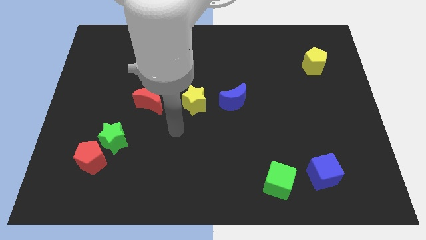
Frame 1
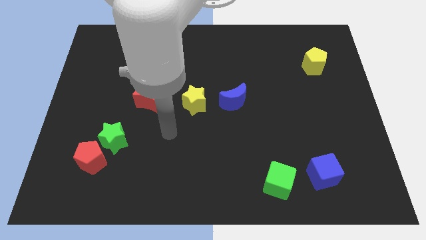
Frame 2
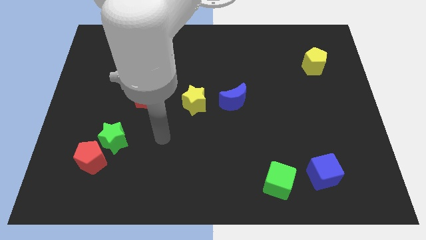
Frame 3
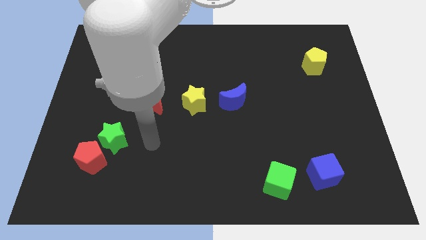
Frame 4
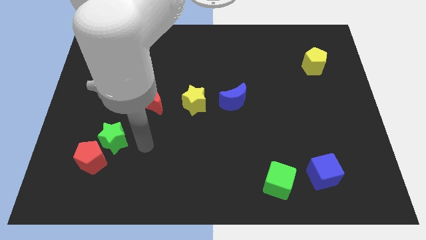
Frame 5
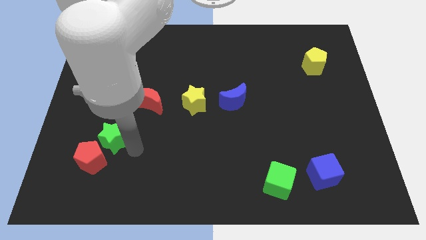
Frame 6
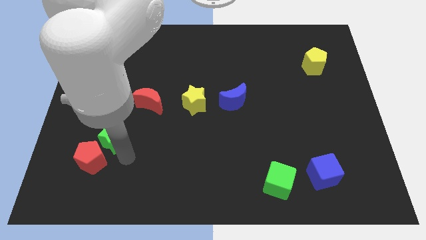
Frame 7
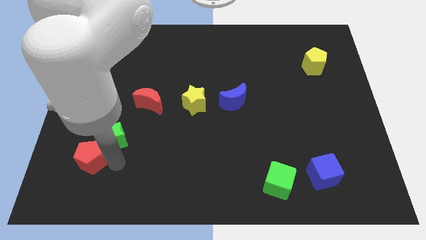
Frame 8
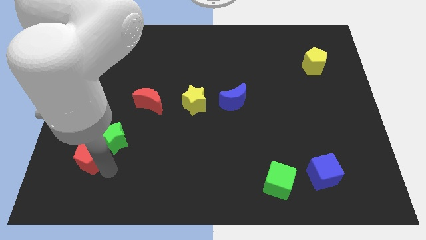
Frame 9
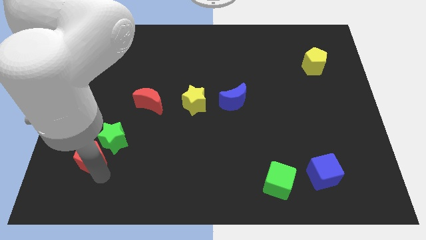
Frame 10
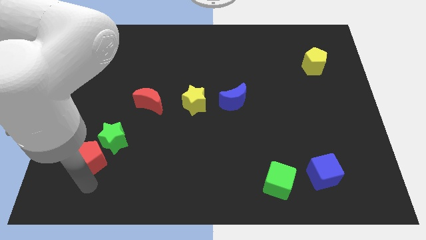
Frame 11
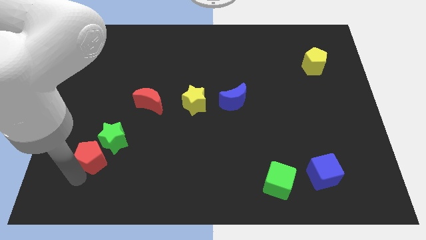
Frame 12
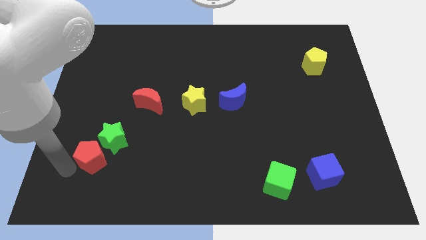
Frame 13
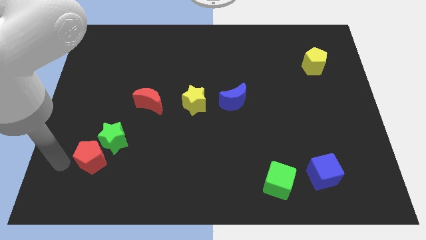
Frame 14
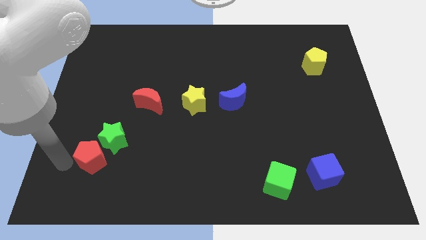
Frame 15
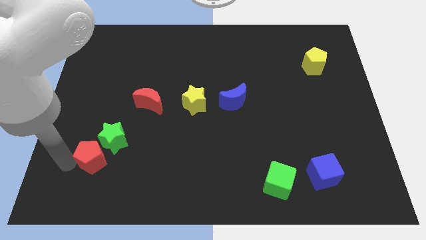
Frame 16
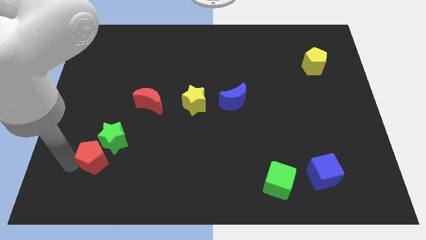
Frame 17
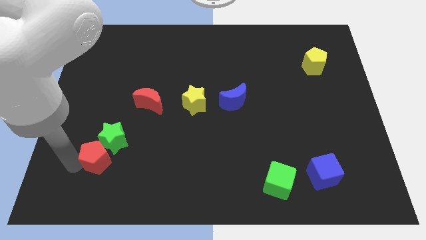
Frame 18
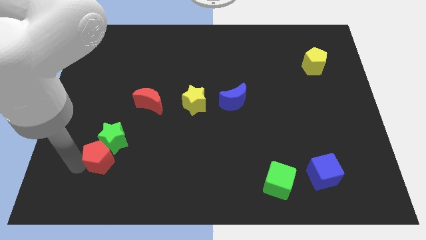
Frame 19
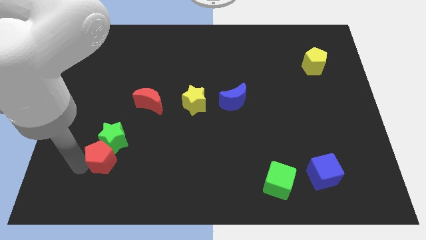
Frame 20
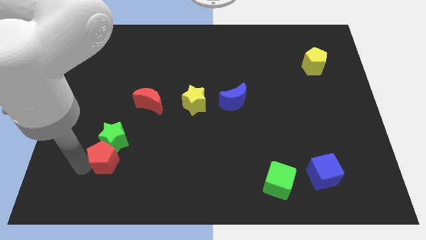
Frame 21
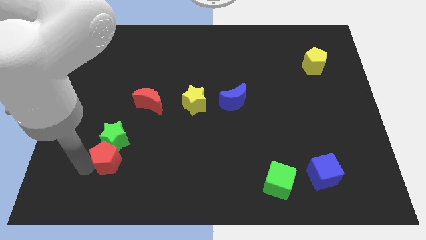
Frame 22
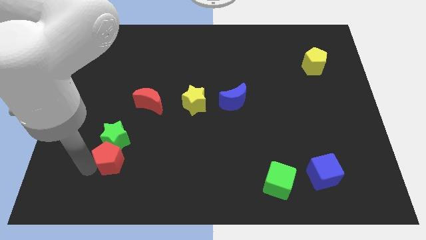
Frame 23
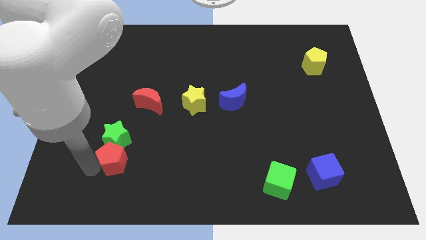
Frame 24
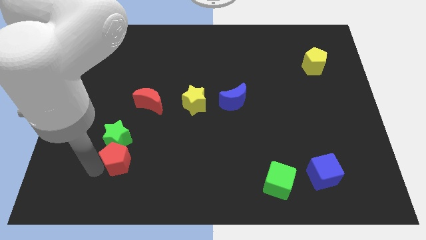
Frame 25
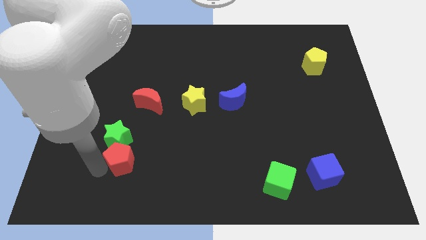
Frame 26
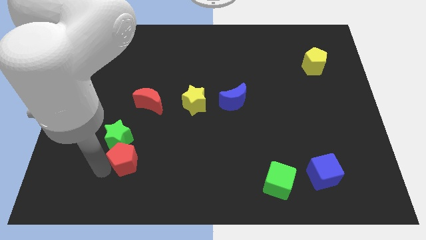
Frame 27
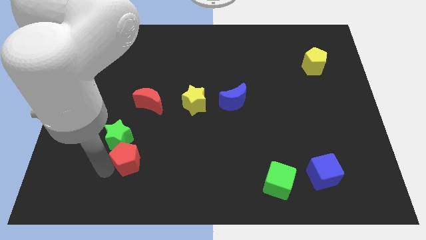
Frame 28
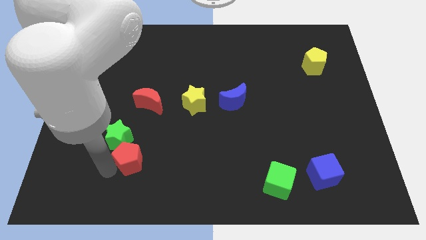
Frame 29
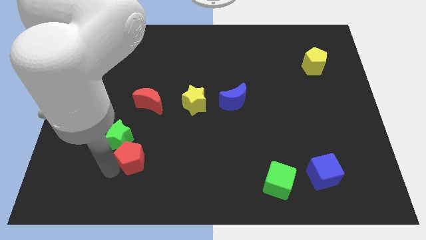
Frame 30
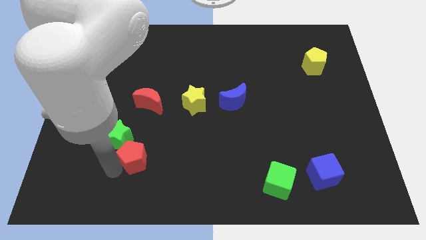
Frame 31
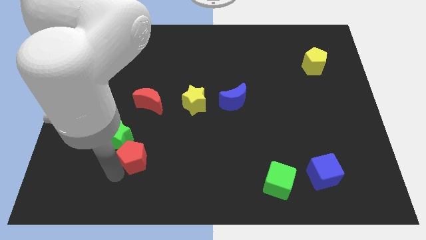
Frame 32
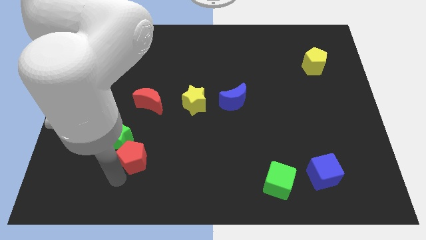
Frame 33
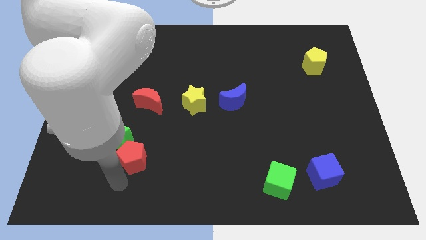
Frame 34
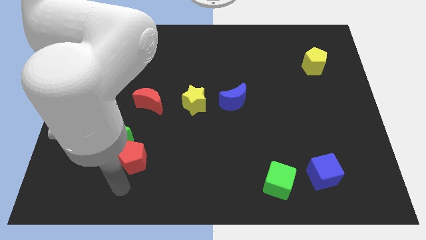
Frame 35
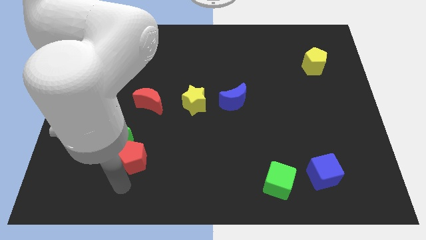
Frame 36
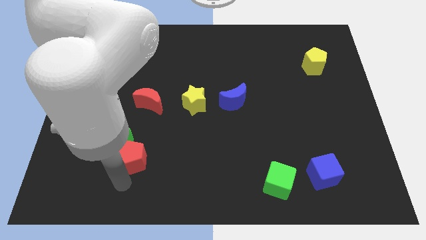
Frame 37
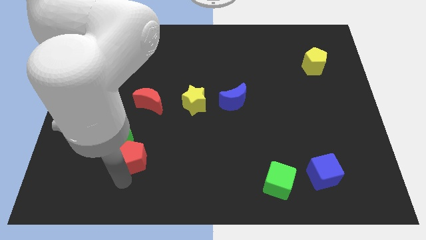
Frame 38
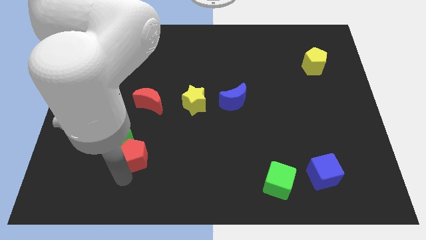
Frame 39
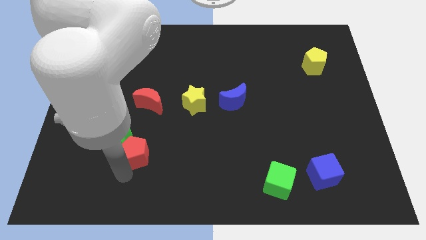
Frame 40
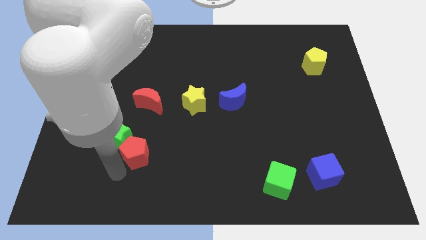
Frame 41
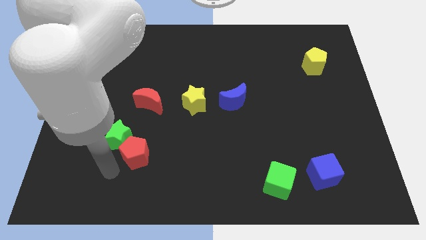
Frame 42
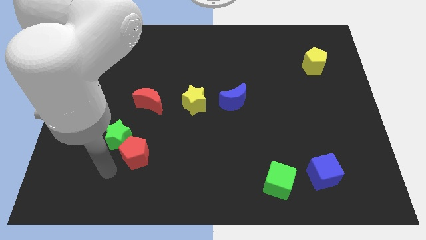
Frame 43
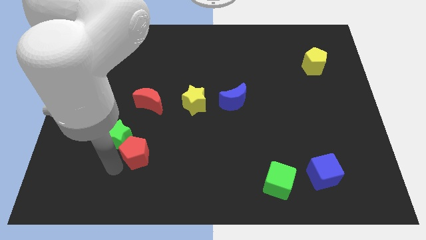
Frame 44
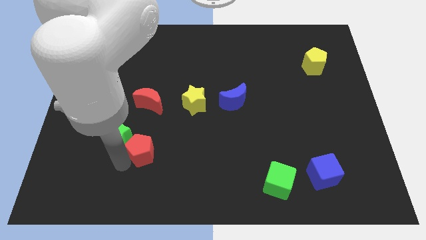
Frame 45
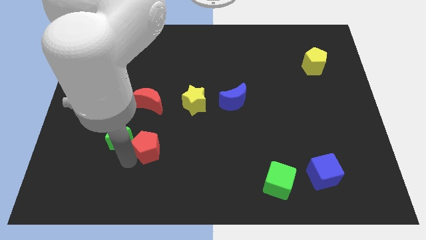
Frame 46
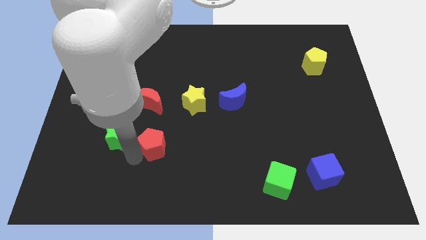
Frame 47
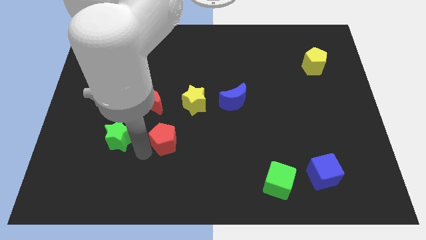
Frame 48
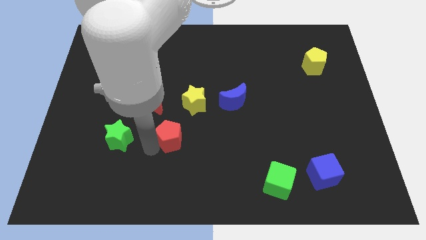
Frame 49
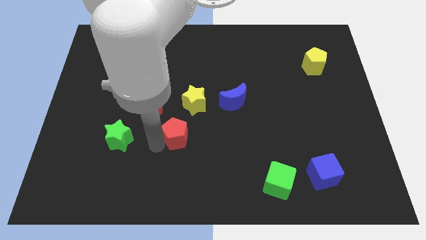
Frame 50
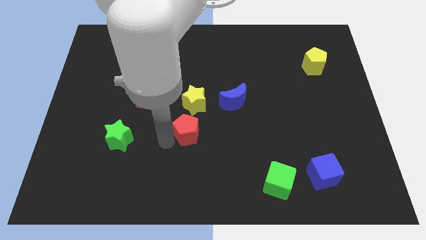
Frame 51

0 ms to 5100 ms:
slide the red pentagon to the center of the board
